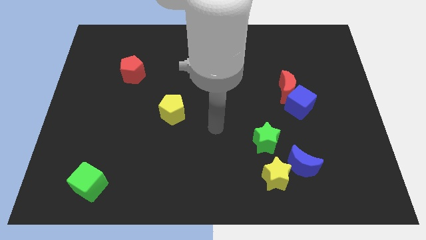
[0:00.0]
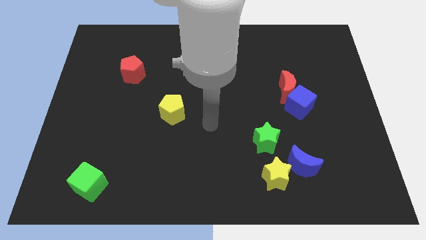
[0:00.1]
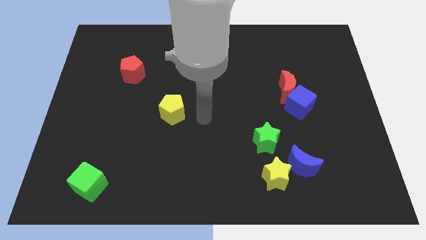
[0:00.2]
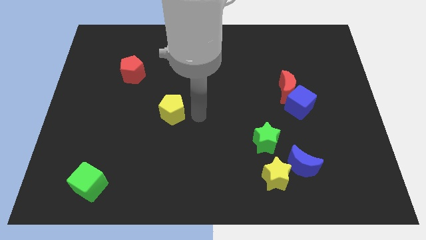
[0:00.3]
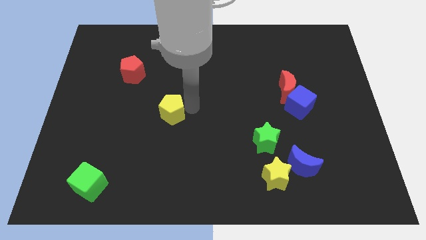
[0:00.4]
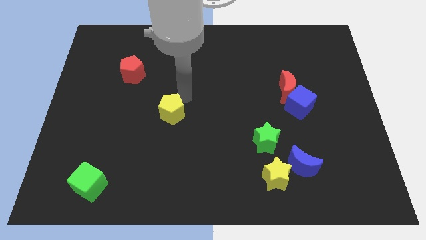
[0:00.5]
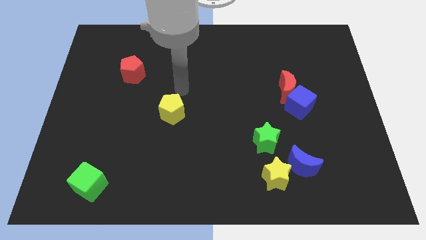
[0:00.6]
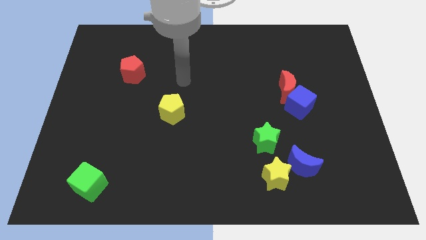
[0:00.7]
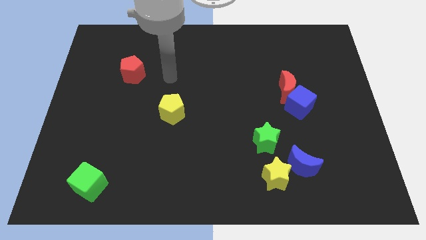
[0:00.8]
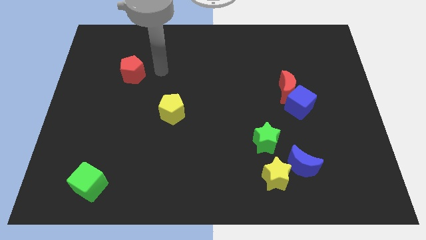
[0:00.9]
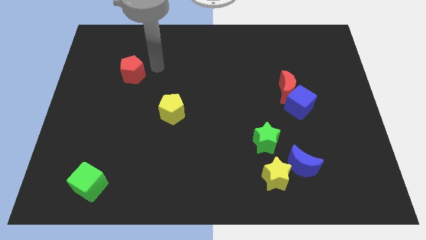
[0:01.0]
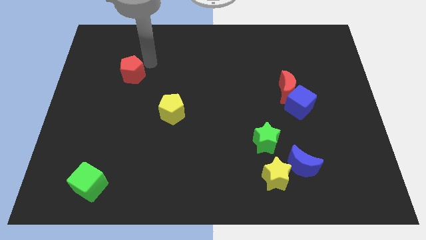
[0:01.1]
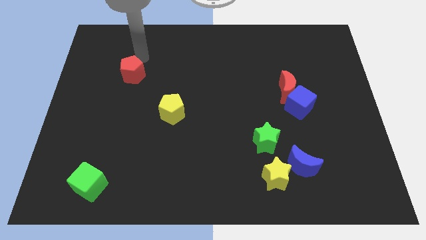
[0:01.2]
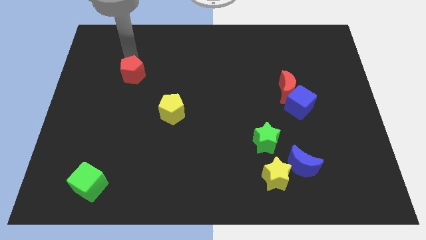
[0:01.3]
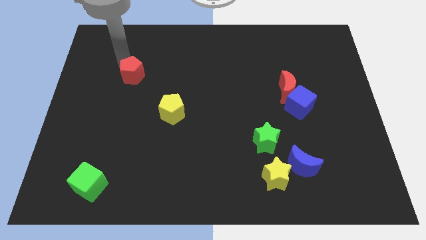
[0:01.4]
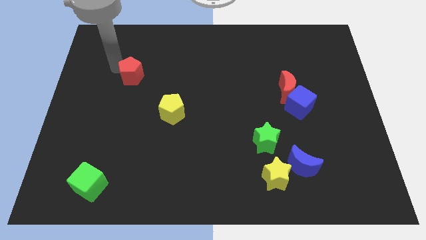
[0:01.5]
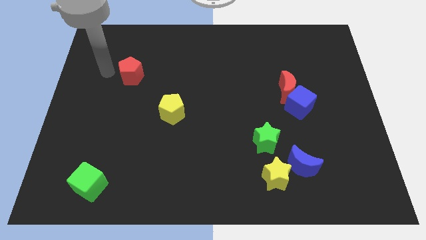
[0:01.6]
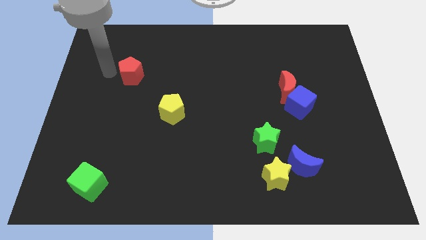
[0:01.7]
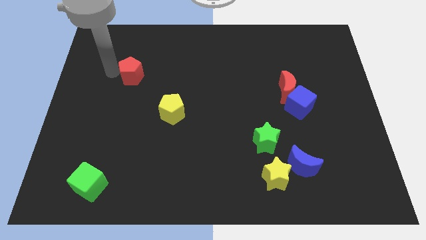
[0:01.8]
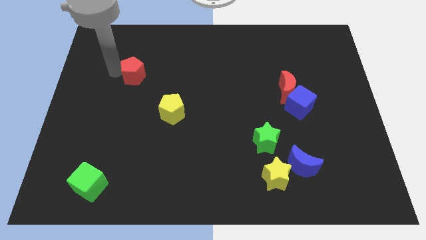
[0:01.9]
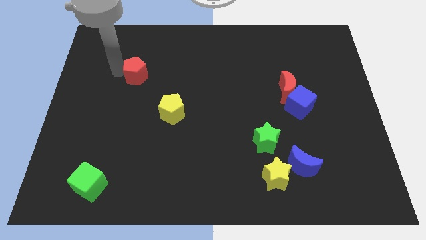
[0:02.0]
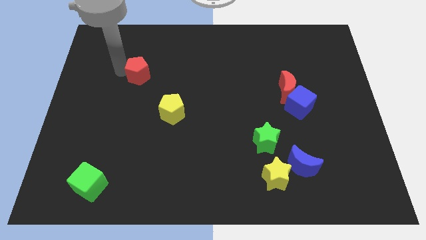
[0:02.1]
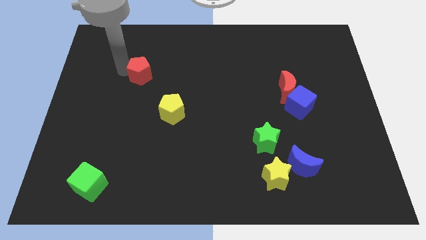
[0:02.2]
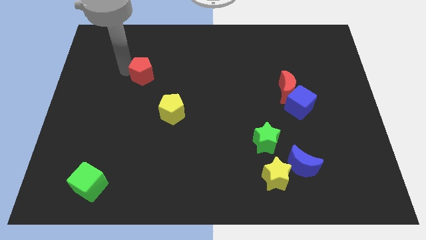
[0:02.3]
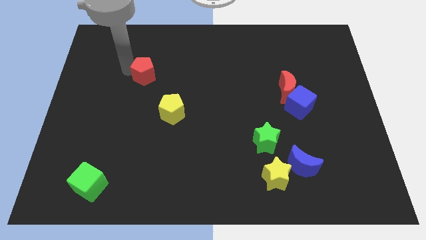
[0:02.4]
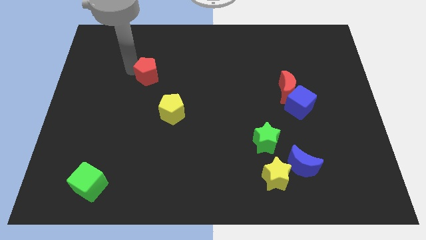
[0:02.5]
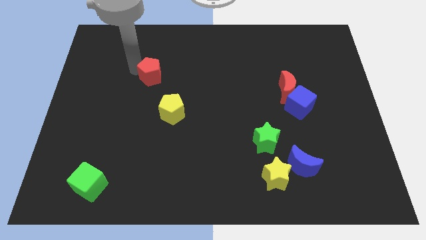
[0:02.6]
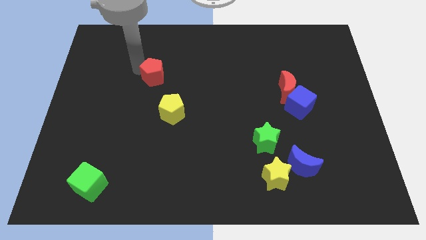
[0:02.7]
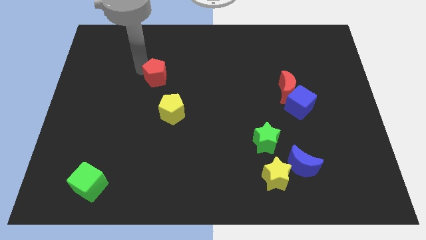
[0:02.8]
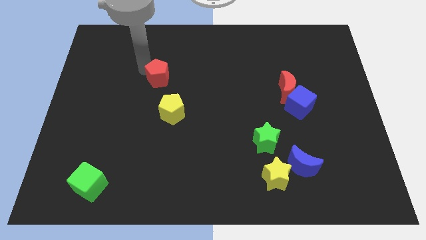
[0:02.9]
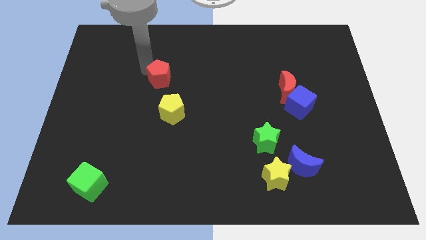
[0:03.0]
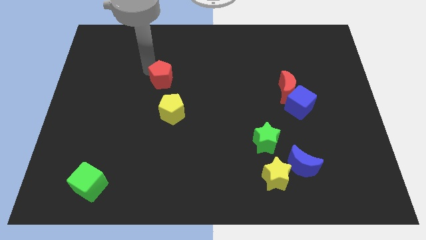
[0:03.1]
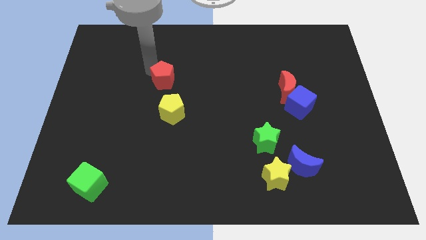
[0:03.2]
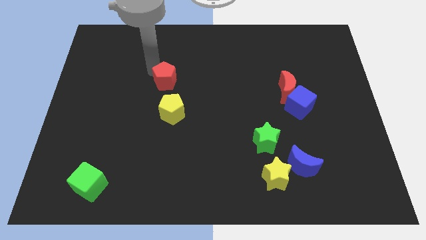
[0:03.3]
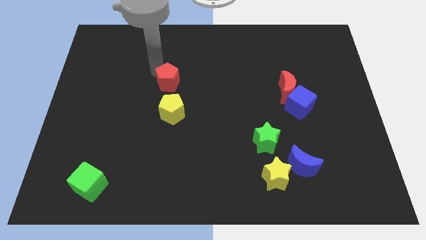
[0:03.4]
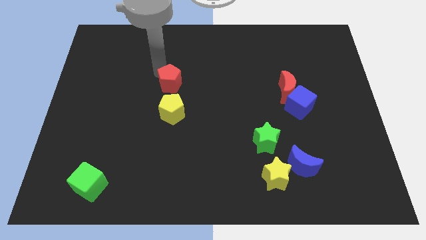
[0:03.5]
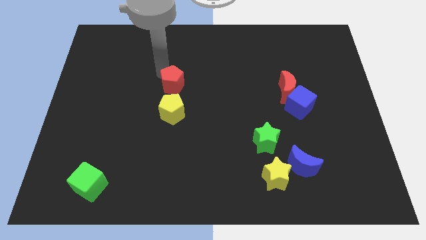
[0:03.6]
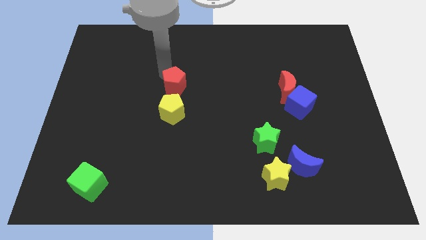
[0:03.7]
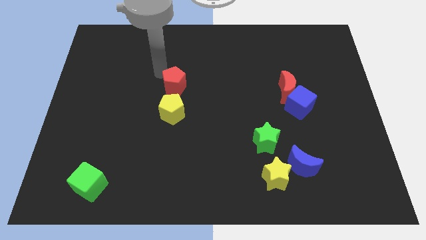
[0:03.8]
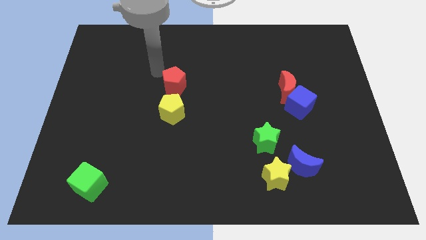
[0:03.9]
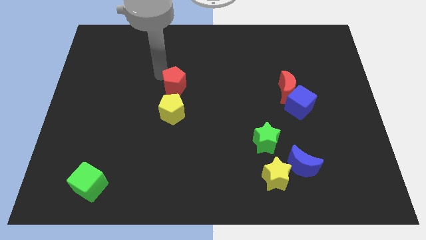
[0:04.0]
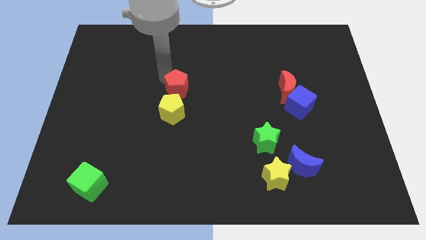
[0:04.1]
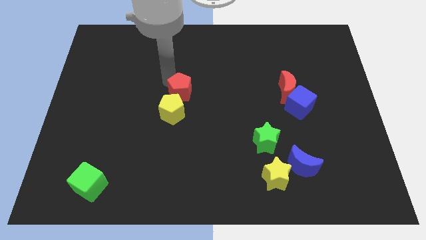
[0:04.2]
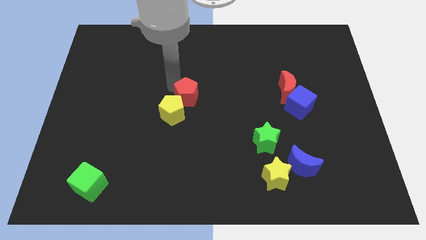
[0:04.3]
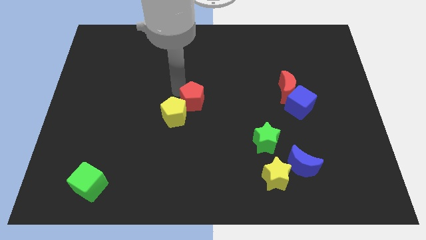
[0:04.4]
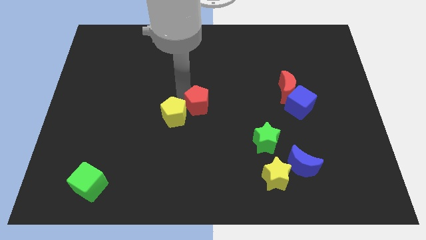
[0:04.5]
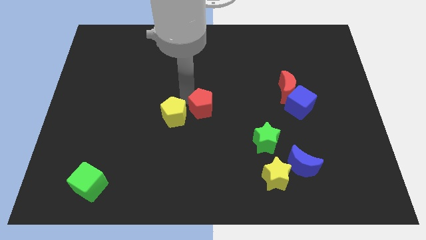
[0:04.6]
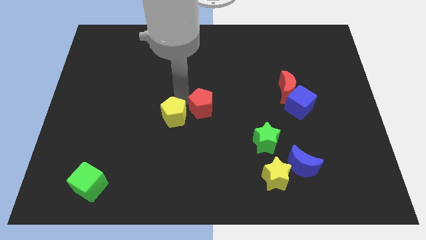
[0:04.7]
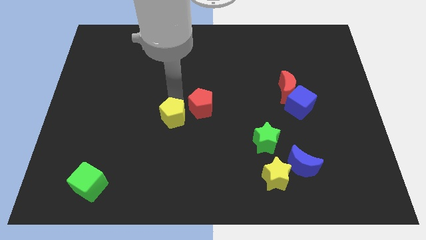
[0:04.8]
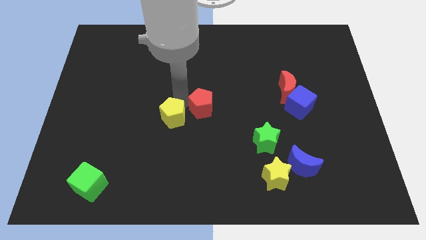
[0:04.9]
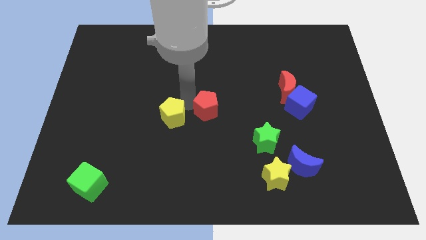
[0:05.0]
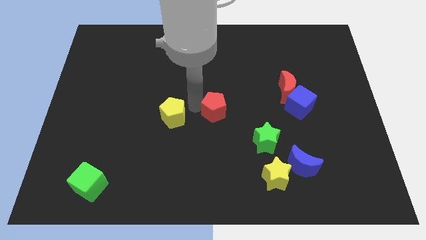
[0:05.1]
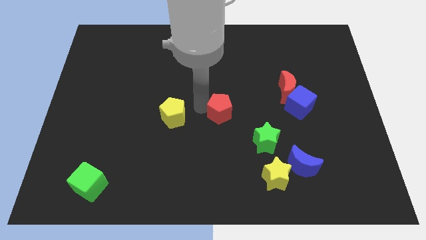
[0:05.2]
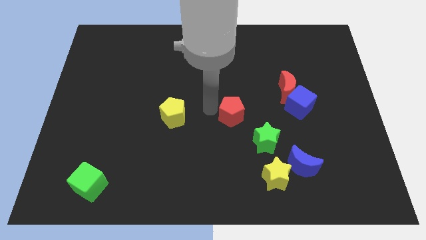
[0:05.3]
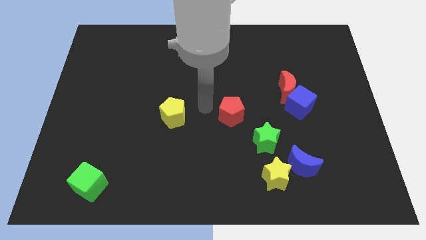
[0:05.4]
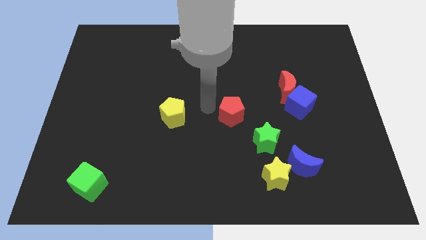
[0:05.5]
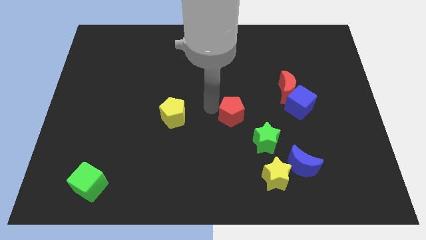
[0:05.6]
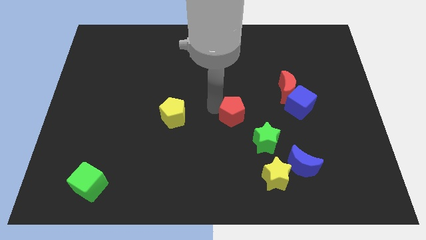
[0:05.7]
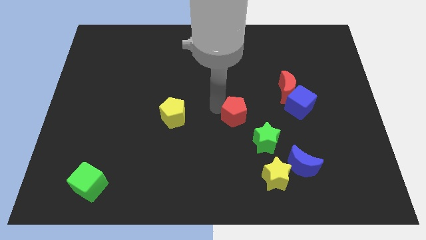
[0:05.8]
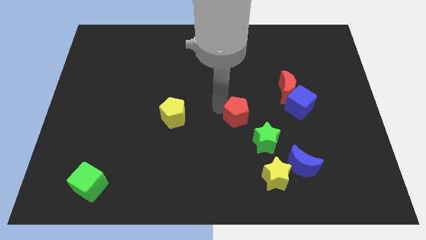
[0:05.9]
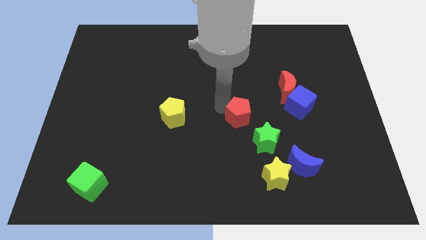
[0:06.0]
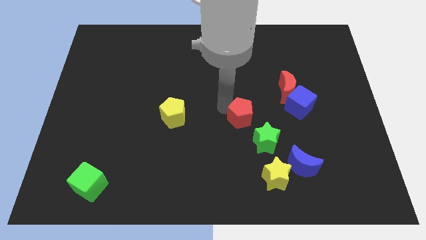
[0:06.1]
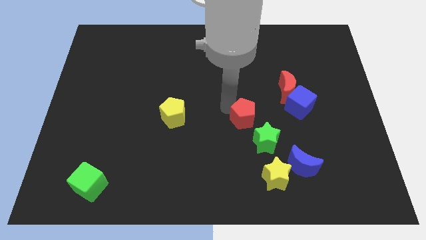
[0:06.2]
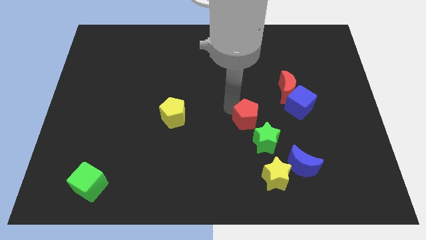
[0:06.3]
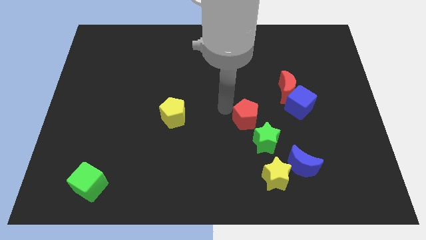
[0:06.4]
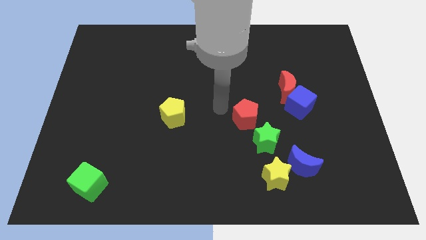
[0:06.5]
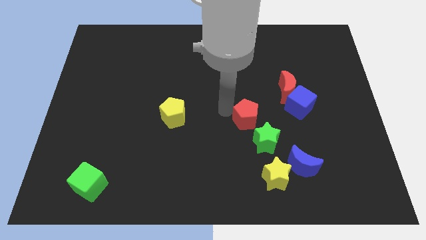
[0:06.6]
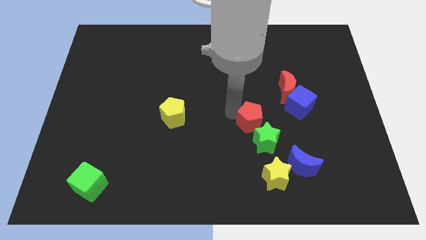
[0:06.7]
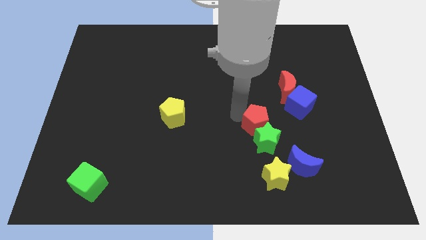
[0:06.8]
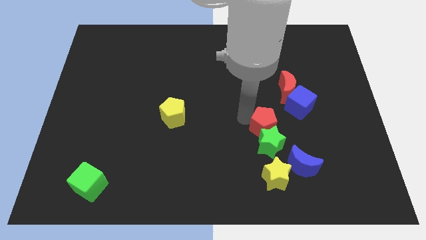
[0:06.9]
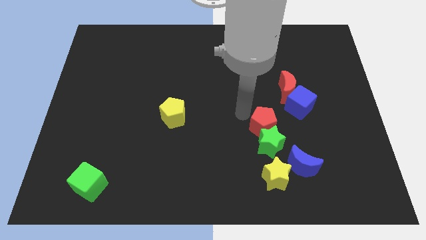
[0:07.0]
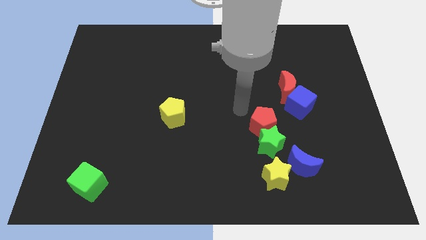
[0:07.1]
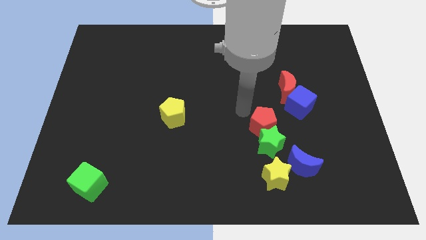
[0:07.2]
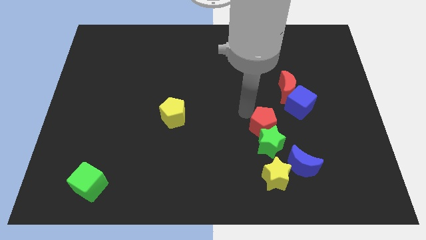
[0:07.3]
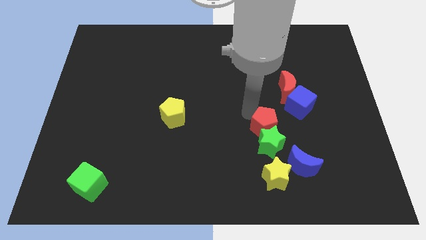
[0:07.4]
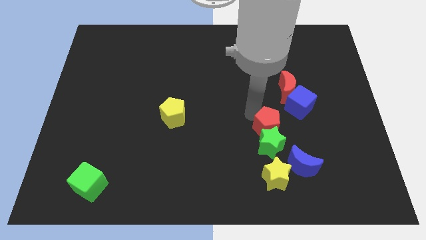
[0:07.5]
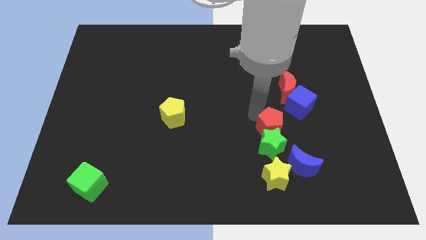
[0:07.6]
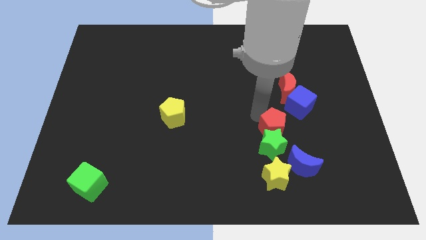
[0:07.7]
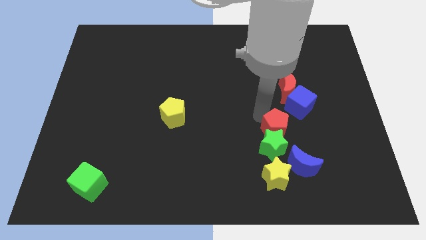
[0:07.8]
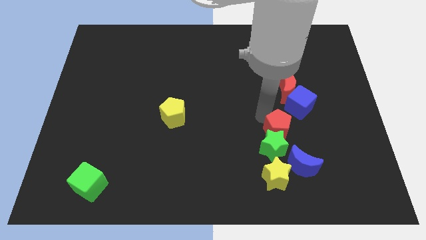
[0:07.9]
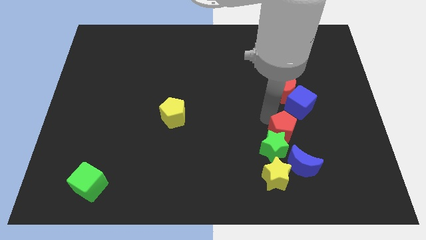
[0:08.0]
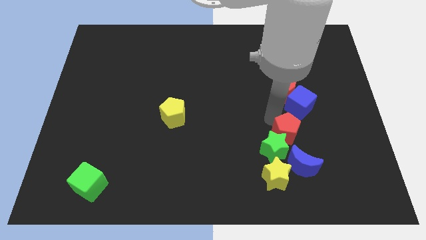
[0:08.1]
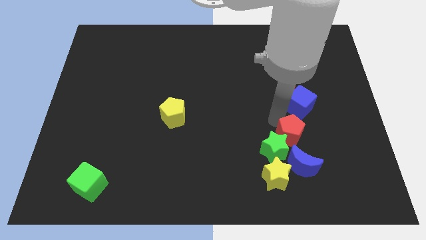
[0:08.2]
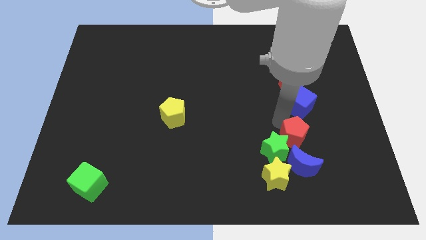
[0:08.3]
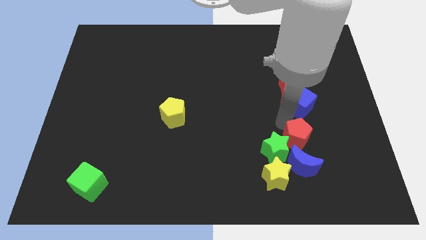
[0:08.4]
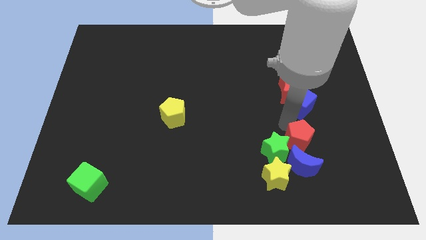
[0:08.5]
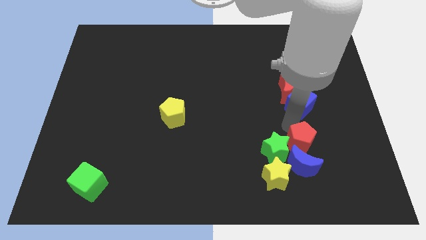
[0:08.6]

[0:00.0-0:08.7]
move the red pentagon next to the blue moon
